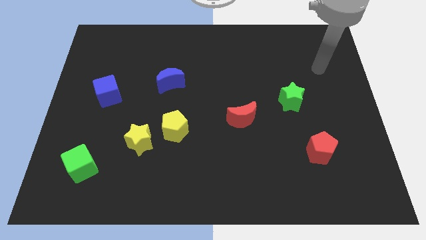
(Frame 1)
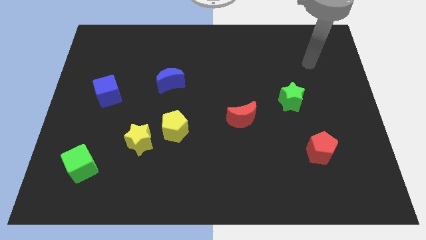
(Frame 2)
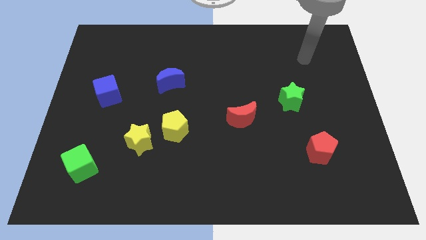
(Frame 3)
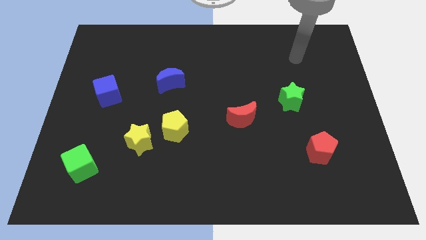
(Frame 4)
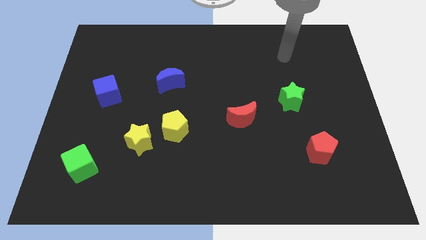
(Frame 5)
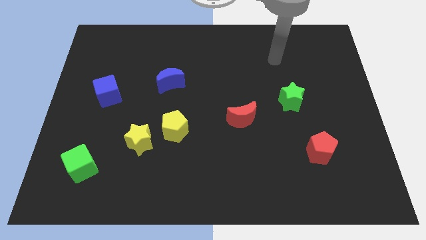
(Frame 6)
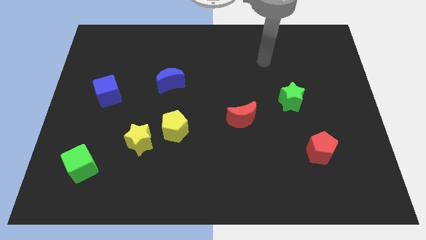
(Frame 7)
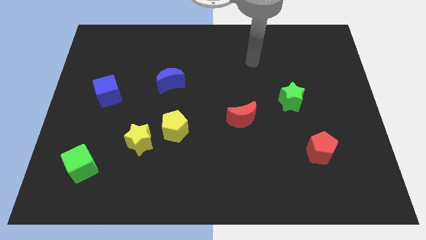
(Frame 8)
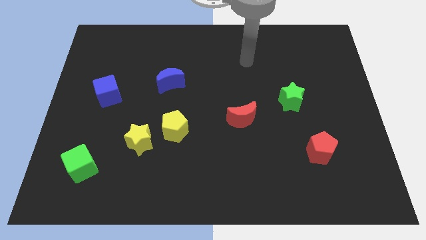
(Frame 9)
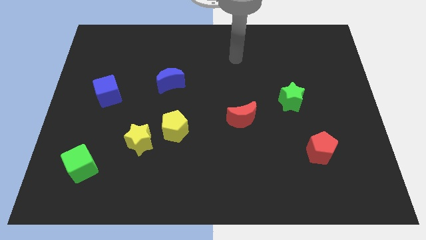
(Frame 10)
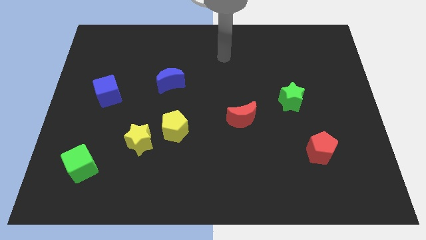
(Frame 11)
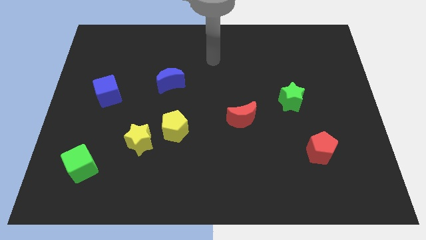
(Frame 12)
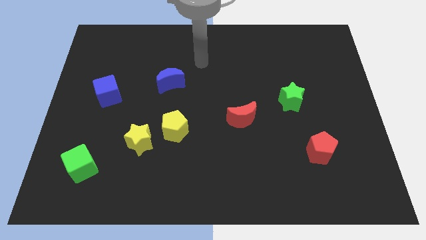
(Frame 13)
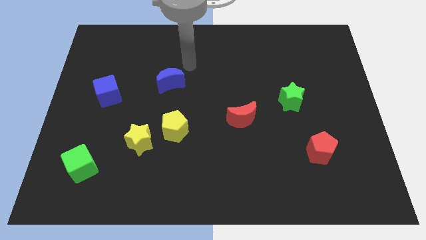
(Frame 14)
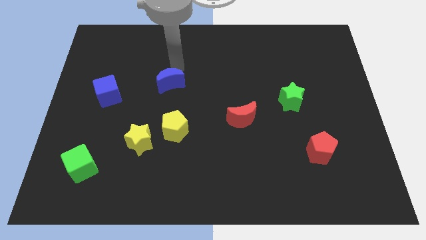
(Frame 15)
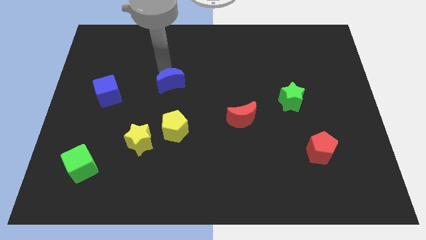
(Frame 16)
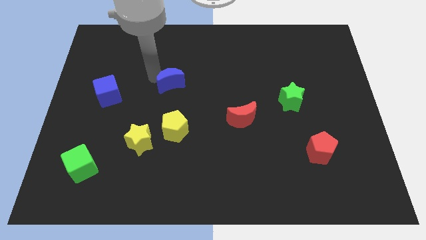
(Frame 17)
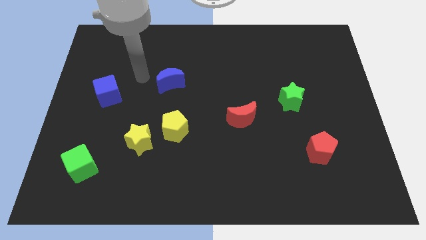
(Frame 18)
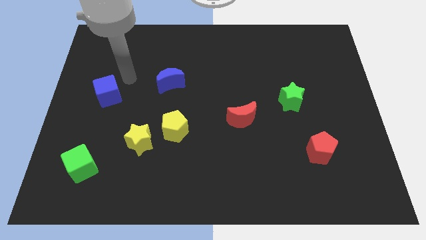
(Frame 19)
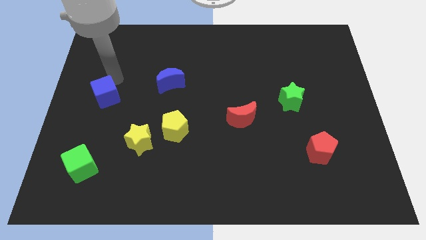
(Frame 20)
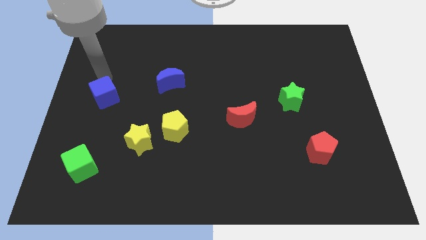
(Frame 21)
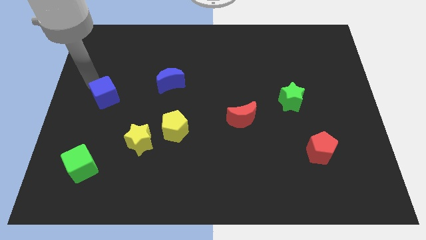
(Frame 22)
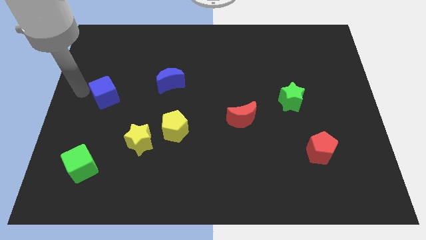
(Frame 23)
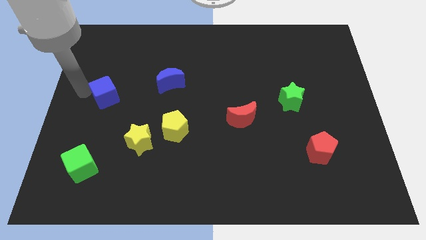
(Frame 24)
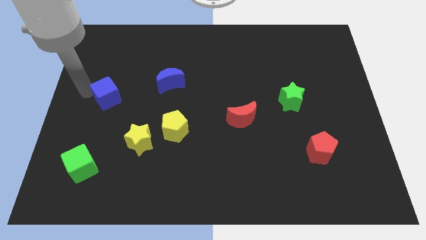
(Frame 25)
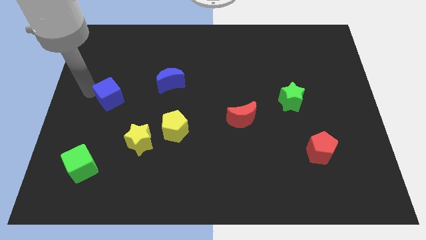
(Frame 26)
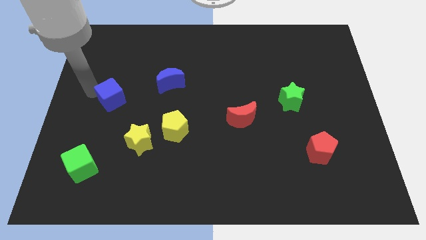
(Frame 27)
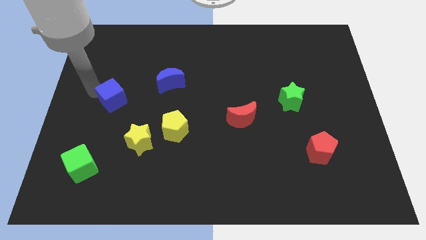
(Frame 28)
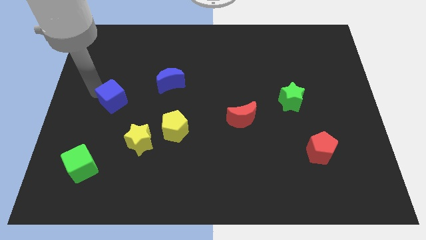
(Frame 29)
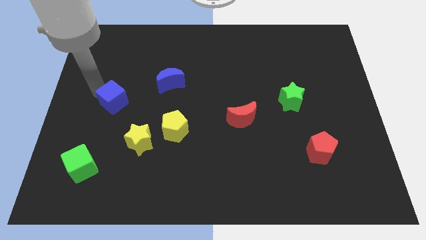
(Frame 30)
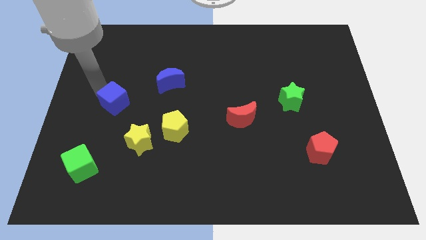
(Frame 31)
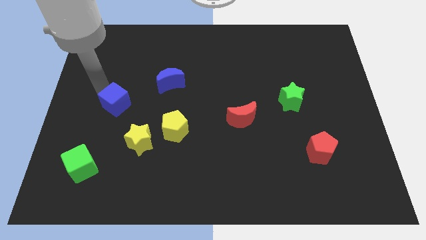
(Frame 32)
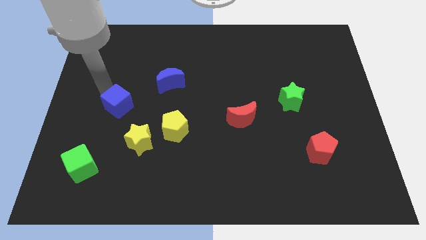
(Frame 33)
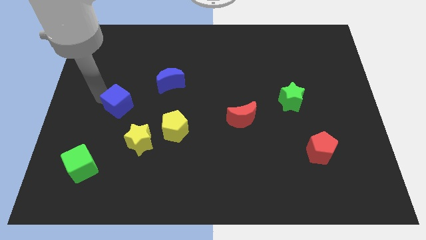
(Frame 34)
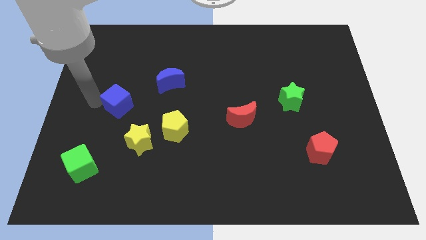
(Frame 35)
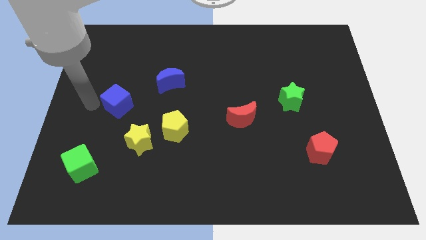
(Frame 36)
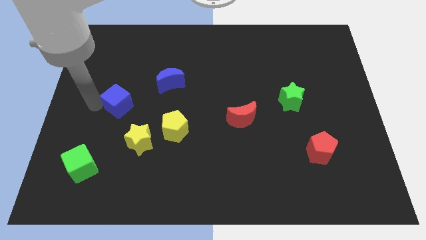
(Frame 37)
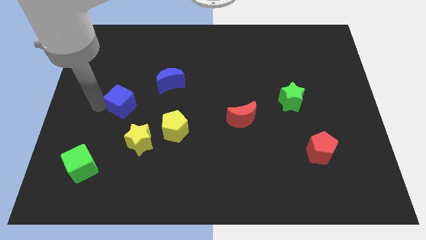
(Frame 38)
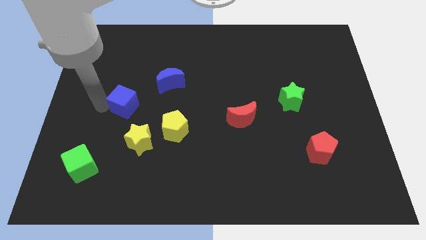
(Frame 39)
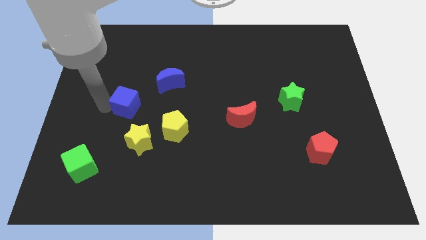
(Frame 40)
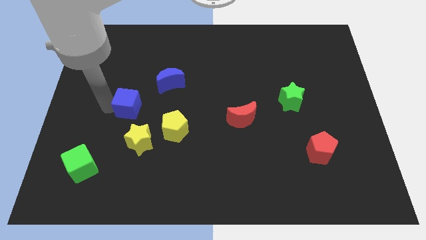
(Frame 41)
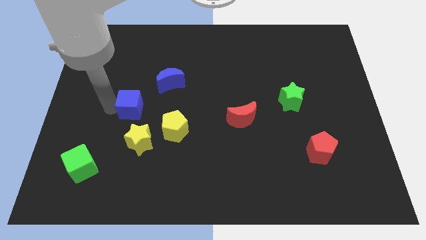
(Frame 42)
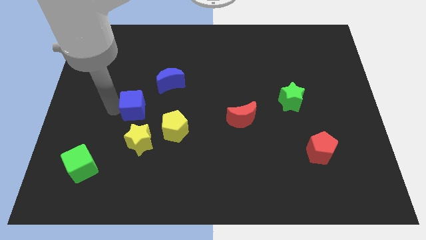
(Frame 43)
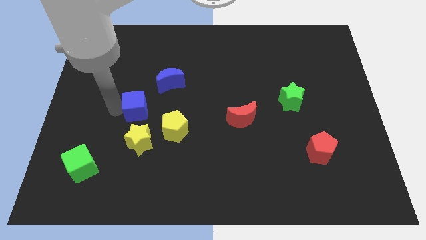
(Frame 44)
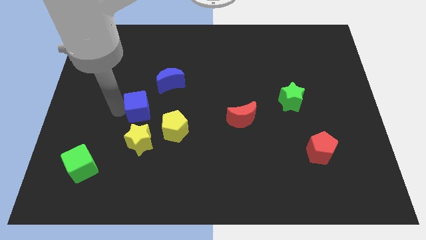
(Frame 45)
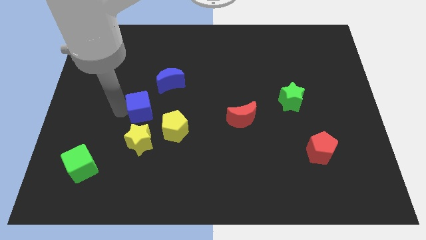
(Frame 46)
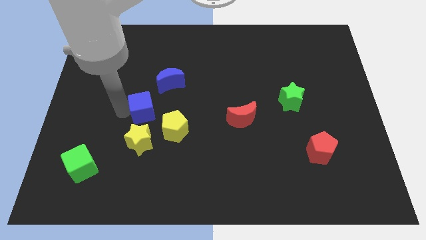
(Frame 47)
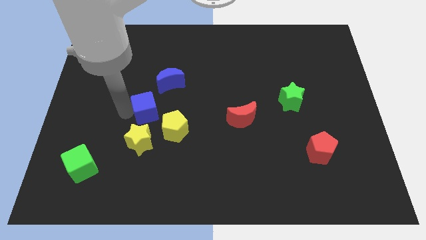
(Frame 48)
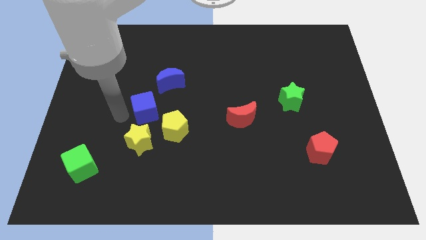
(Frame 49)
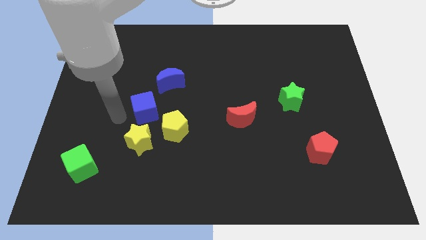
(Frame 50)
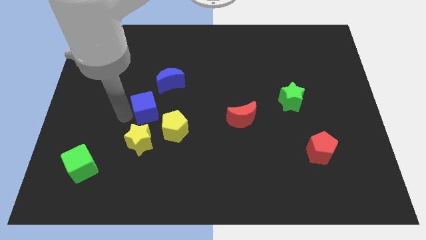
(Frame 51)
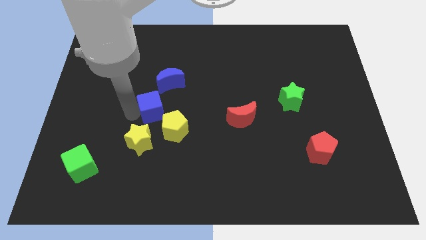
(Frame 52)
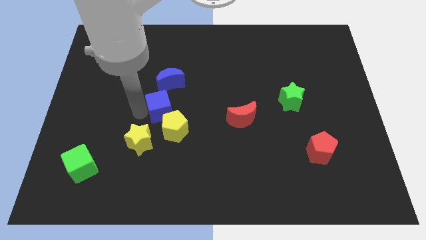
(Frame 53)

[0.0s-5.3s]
move the blue cube to the center

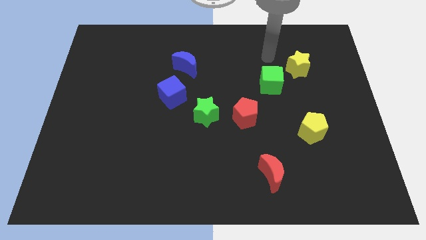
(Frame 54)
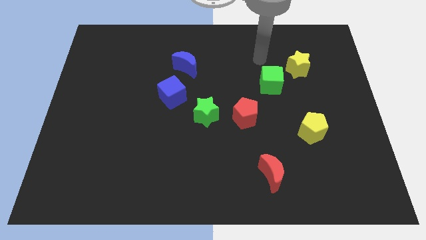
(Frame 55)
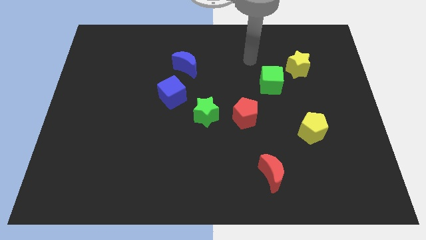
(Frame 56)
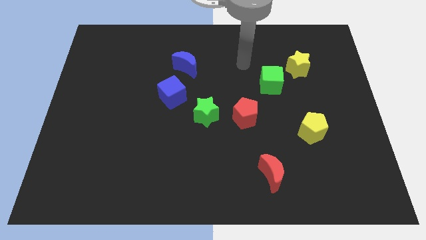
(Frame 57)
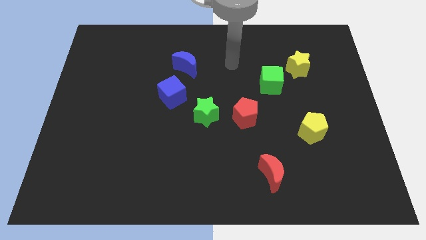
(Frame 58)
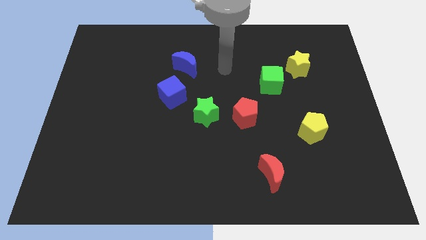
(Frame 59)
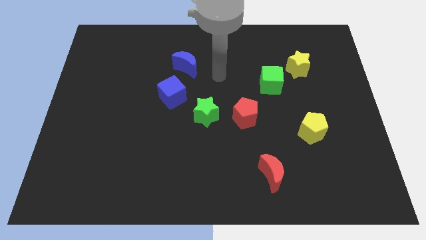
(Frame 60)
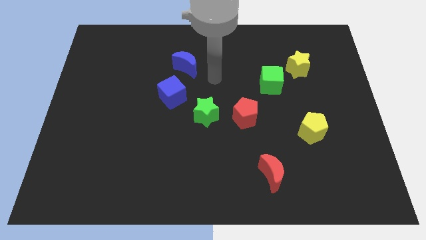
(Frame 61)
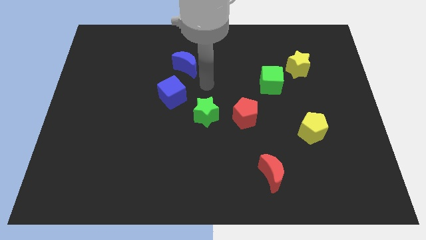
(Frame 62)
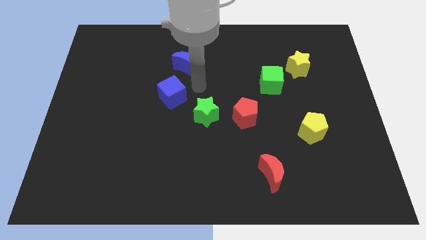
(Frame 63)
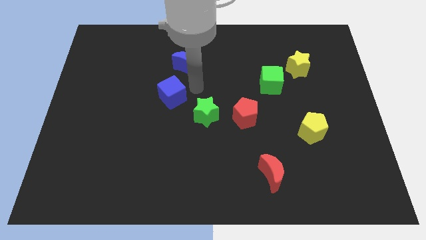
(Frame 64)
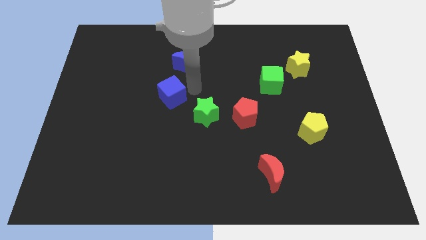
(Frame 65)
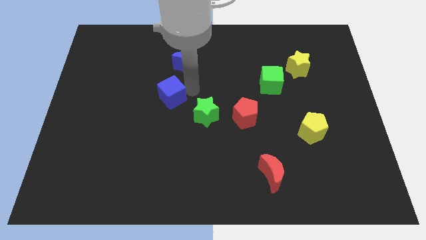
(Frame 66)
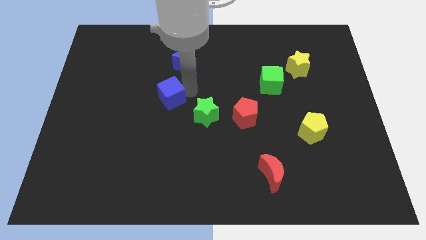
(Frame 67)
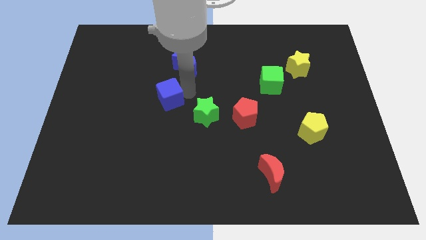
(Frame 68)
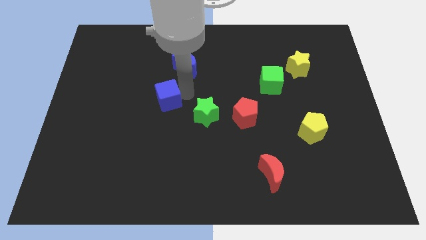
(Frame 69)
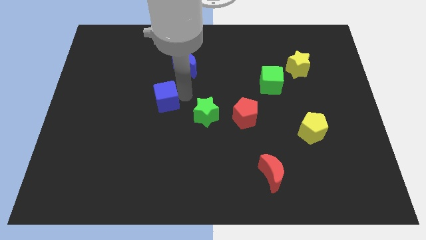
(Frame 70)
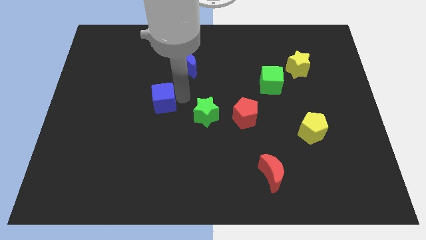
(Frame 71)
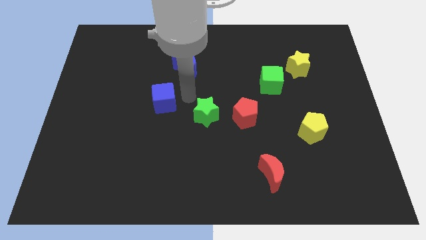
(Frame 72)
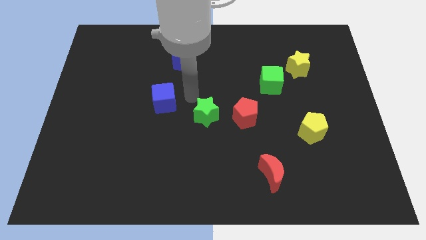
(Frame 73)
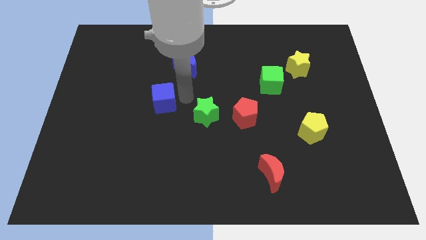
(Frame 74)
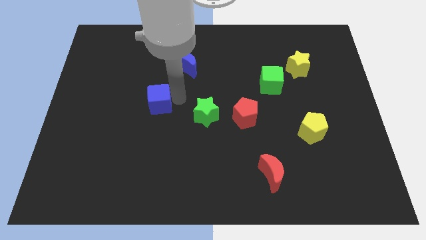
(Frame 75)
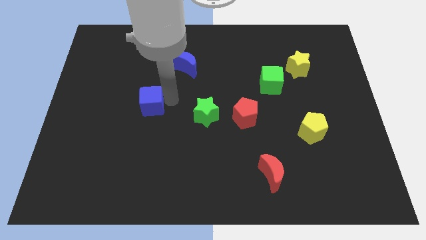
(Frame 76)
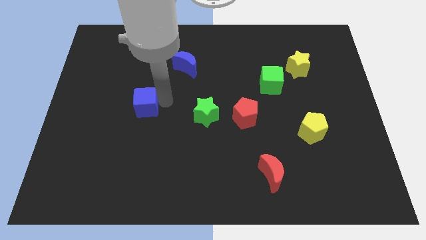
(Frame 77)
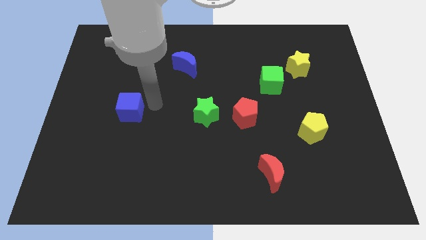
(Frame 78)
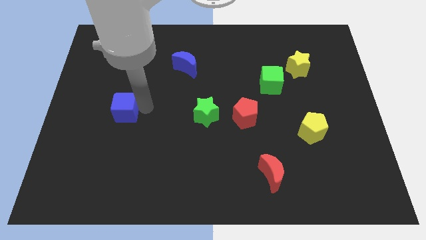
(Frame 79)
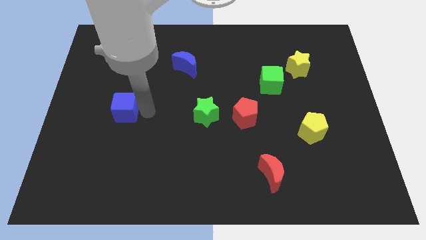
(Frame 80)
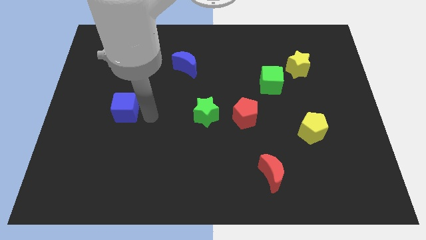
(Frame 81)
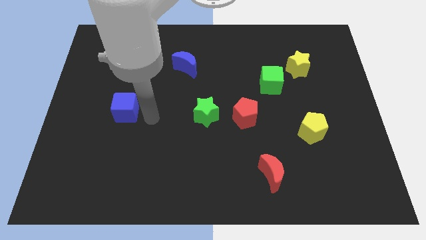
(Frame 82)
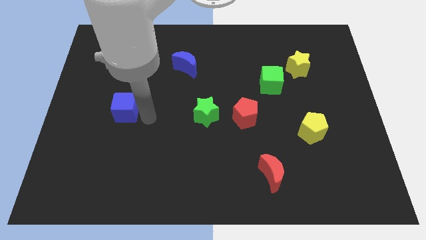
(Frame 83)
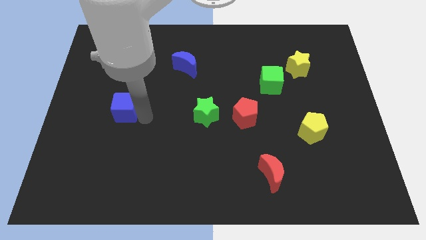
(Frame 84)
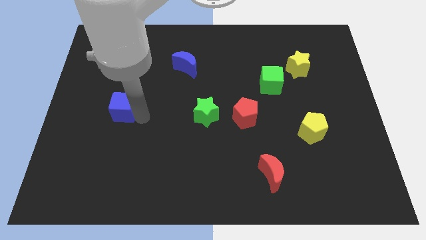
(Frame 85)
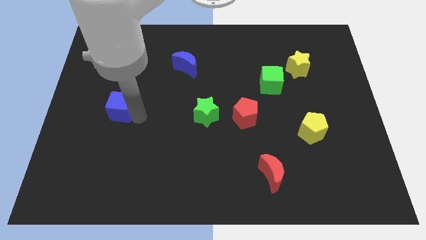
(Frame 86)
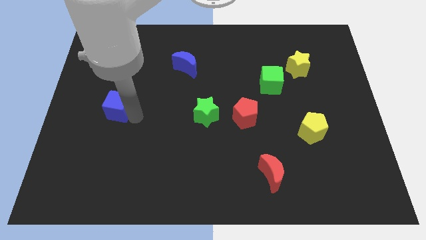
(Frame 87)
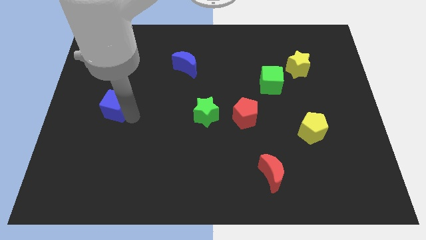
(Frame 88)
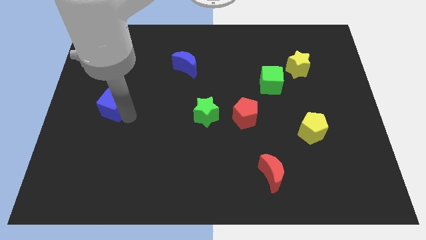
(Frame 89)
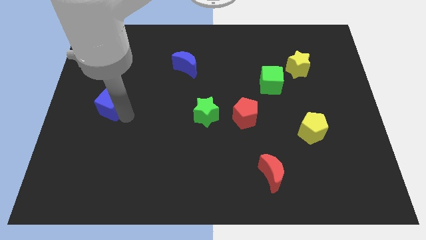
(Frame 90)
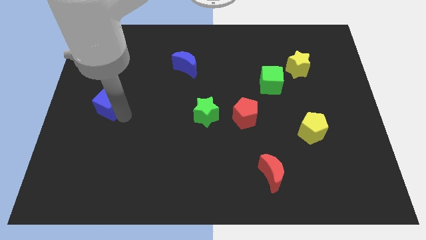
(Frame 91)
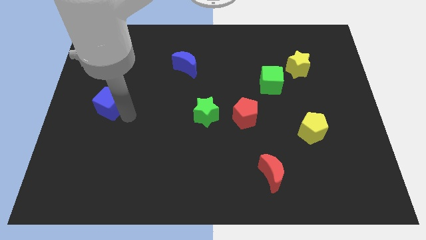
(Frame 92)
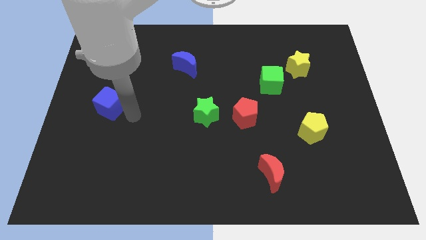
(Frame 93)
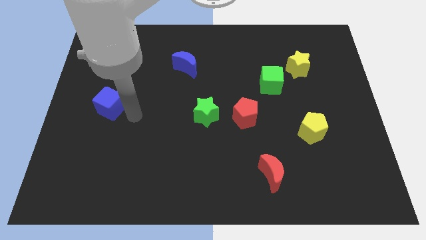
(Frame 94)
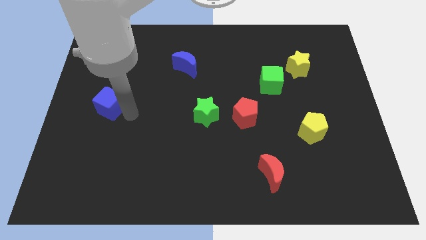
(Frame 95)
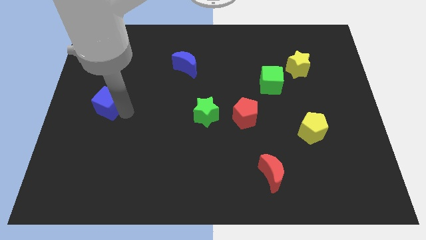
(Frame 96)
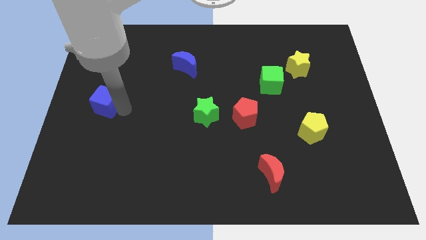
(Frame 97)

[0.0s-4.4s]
slide the blue cube to the center left
